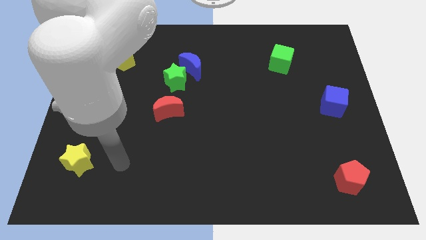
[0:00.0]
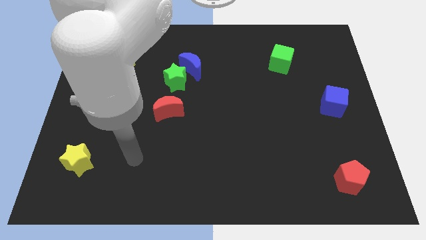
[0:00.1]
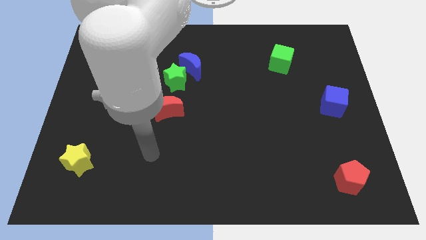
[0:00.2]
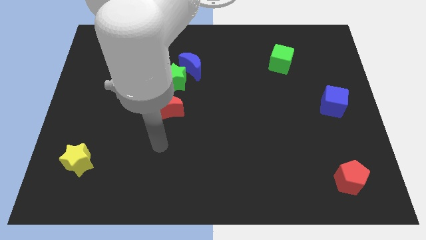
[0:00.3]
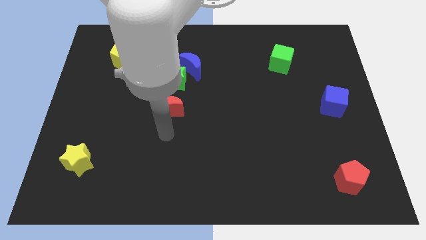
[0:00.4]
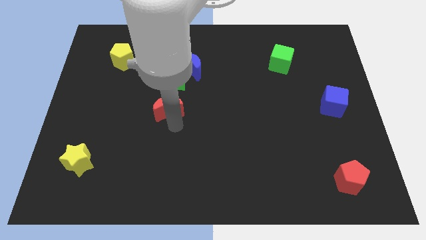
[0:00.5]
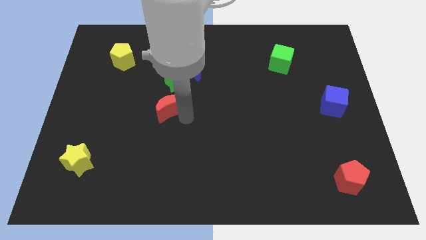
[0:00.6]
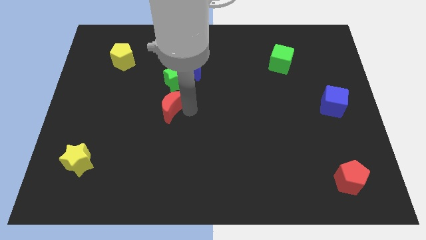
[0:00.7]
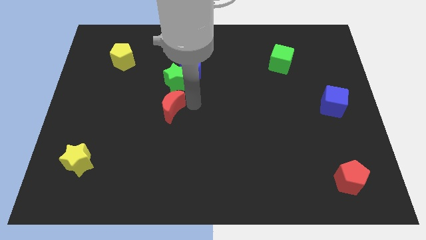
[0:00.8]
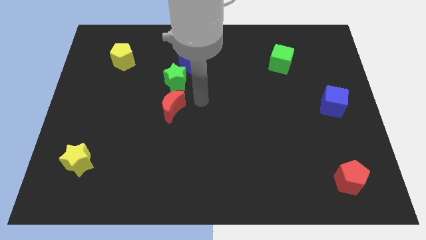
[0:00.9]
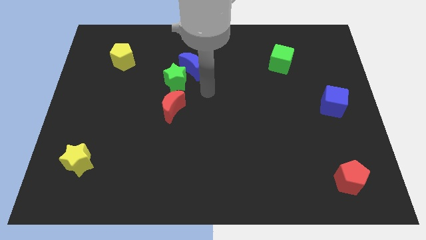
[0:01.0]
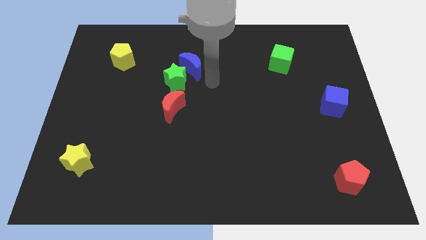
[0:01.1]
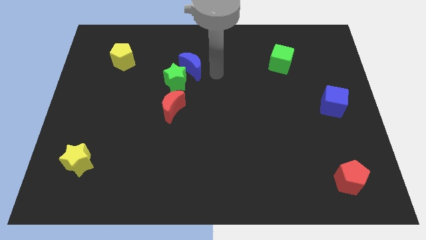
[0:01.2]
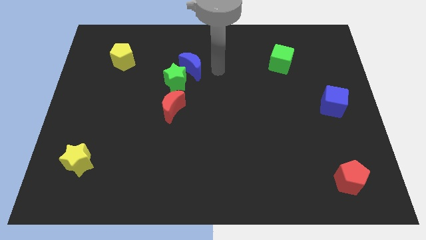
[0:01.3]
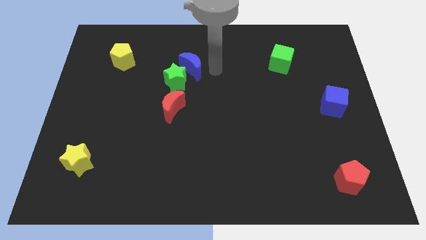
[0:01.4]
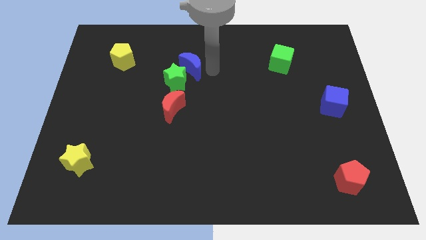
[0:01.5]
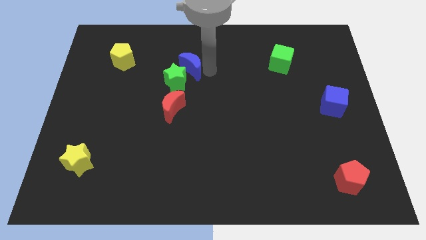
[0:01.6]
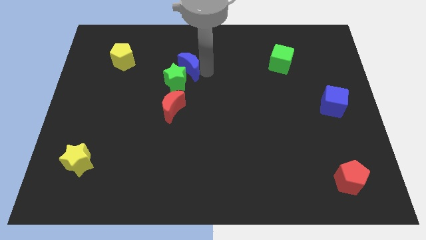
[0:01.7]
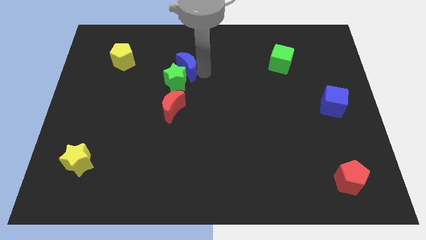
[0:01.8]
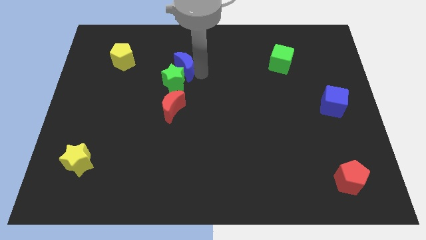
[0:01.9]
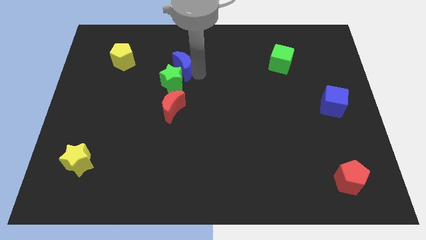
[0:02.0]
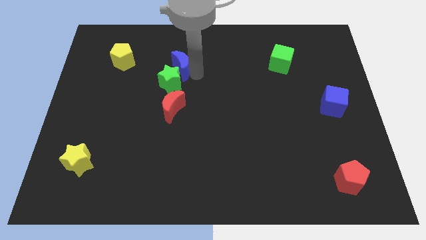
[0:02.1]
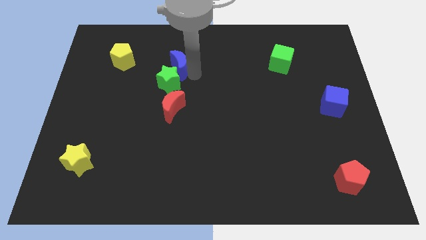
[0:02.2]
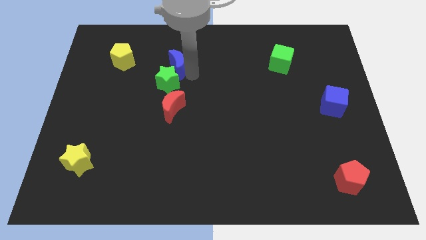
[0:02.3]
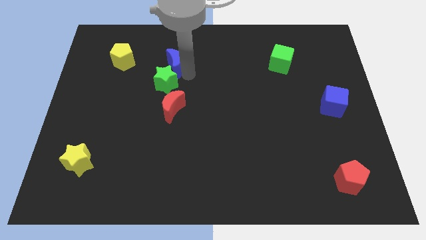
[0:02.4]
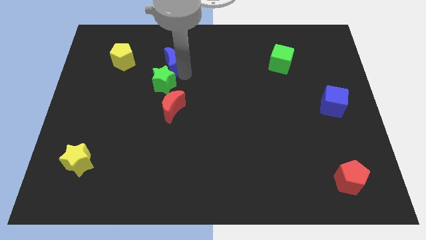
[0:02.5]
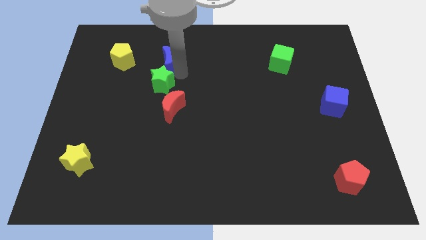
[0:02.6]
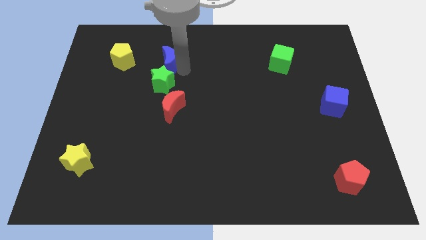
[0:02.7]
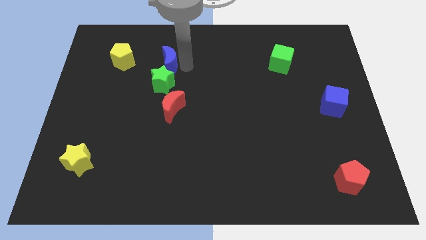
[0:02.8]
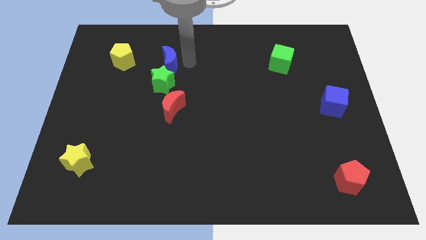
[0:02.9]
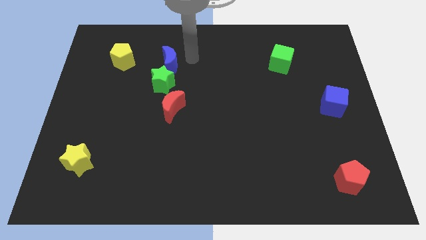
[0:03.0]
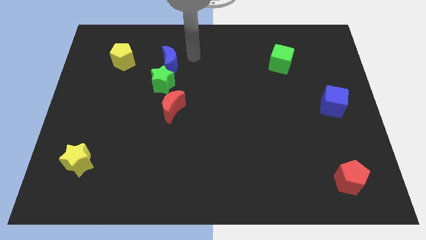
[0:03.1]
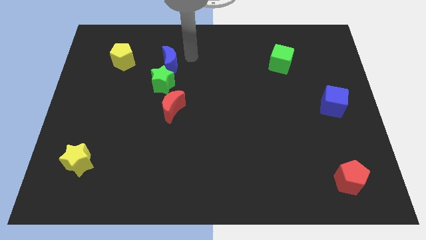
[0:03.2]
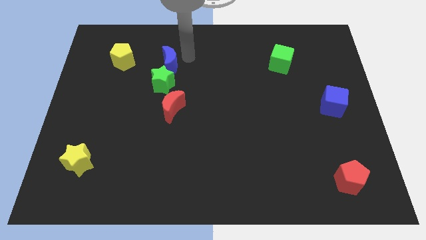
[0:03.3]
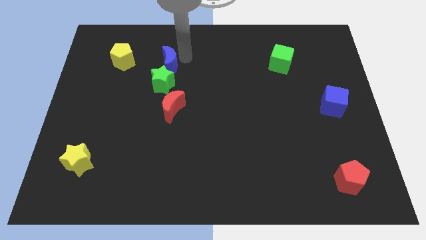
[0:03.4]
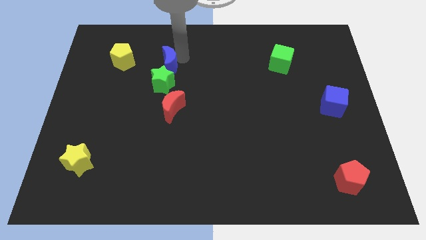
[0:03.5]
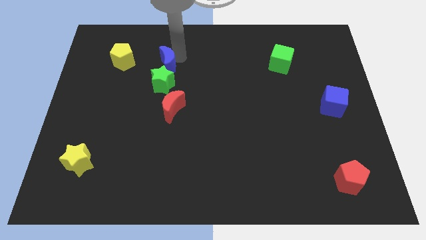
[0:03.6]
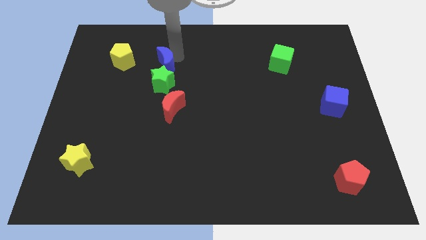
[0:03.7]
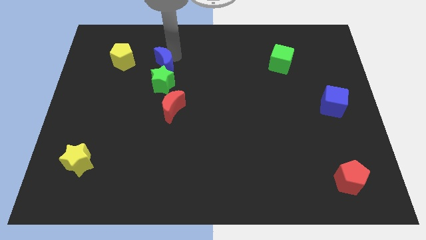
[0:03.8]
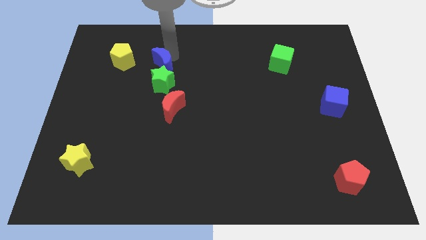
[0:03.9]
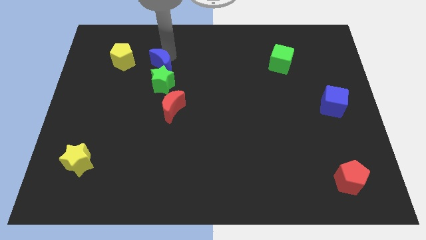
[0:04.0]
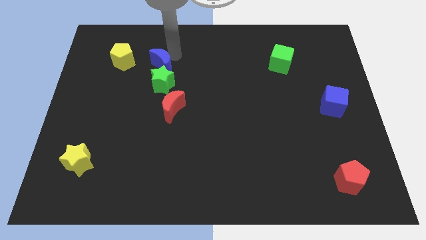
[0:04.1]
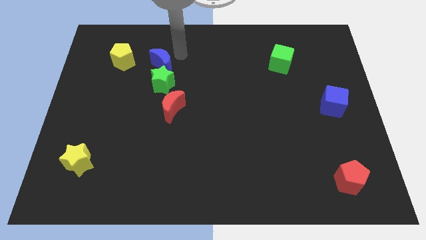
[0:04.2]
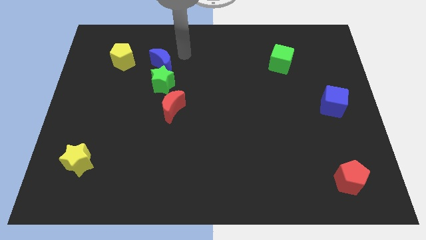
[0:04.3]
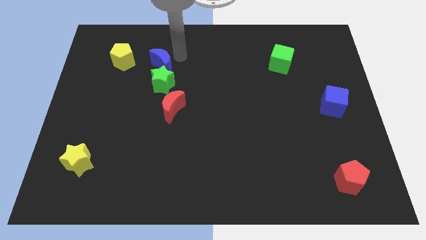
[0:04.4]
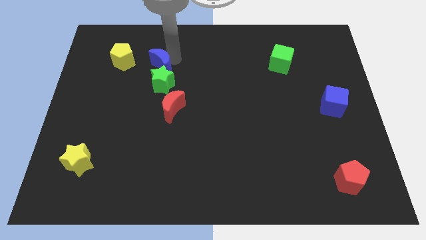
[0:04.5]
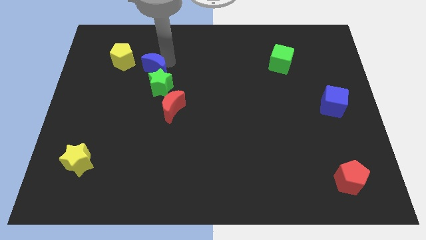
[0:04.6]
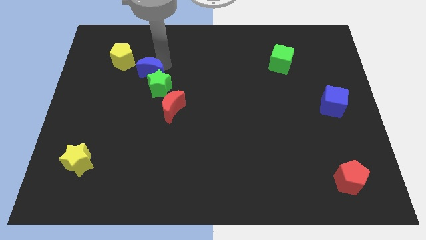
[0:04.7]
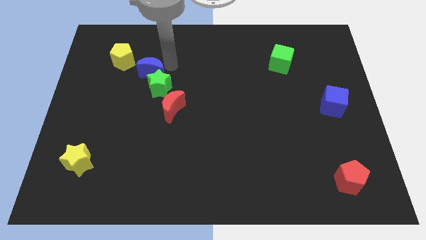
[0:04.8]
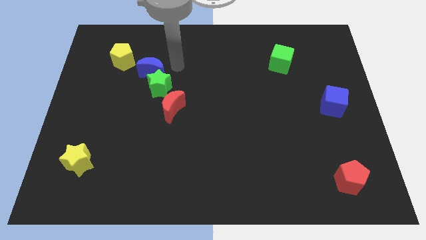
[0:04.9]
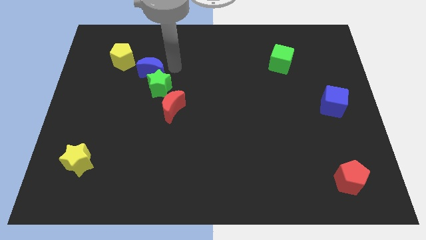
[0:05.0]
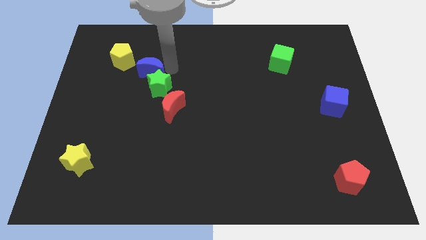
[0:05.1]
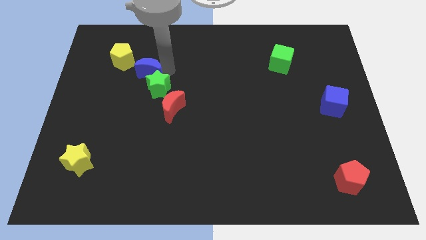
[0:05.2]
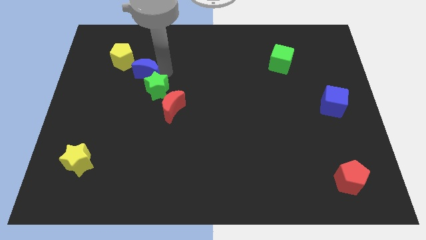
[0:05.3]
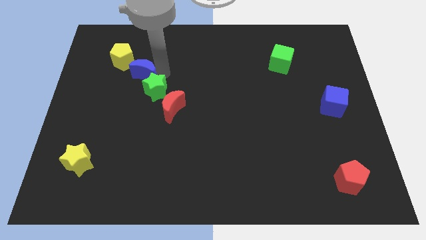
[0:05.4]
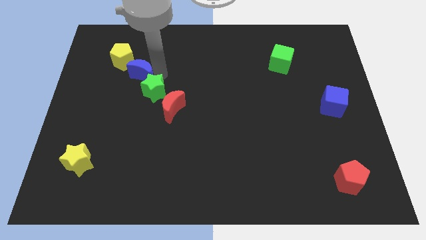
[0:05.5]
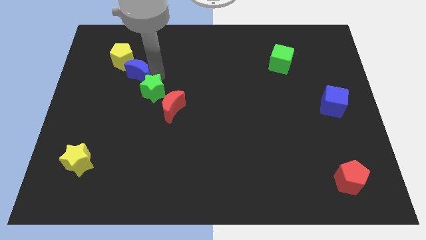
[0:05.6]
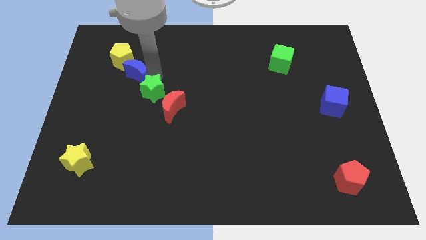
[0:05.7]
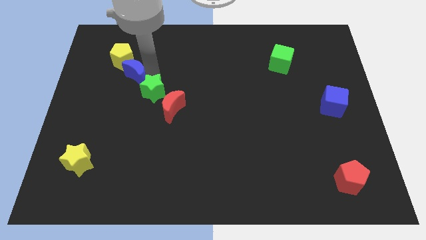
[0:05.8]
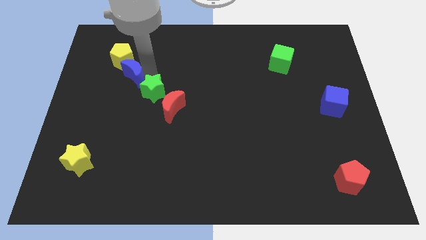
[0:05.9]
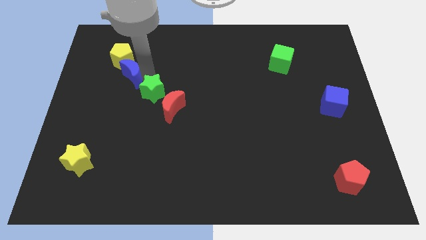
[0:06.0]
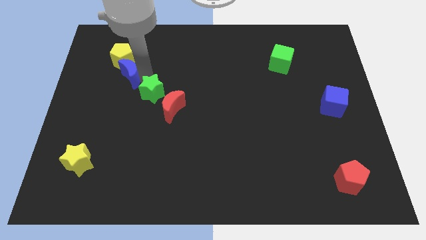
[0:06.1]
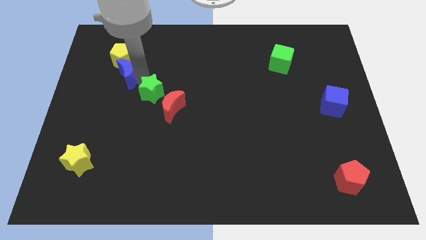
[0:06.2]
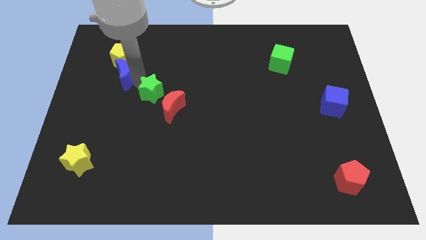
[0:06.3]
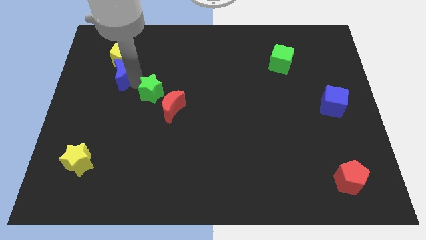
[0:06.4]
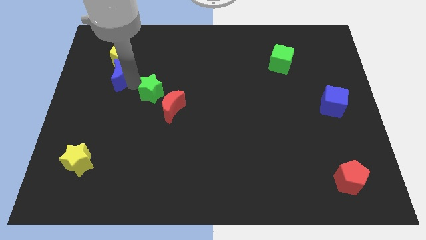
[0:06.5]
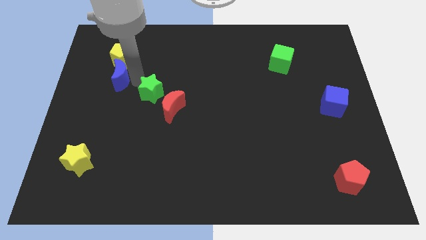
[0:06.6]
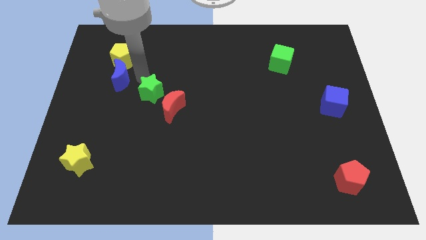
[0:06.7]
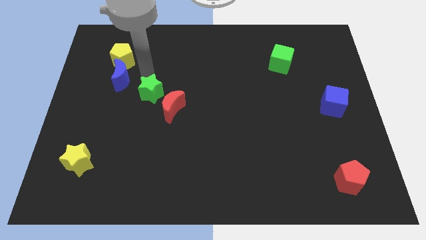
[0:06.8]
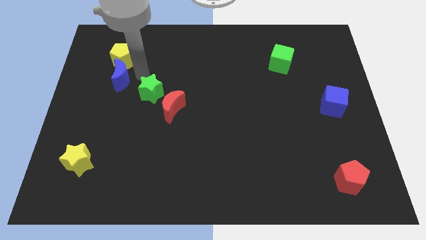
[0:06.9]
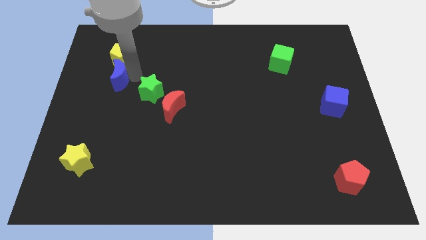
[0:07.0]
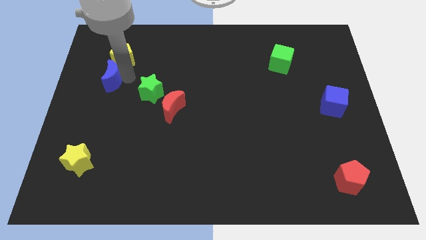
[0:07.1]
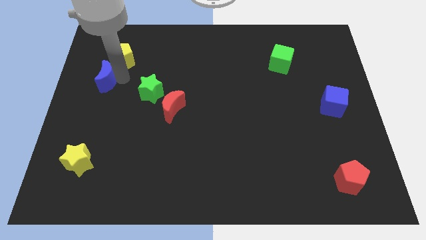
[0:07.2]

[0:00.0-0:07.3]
move the blue moon to the center left
